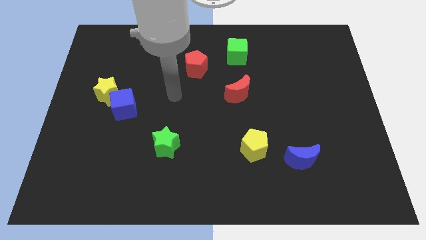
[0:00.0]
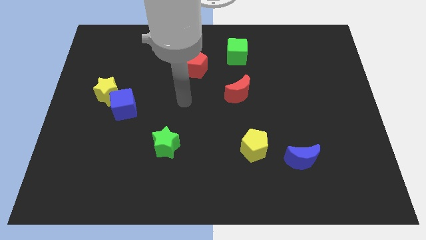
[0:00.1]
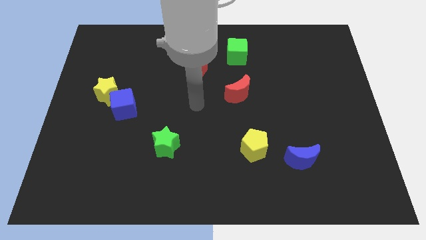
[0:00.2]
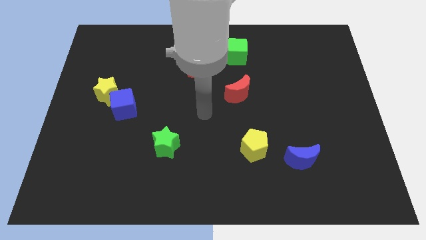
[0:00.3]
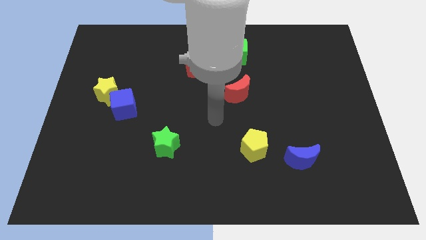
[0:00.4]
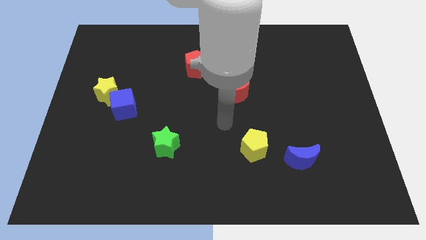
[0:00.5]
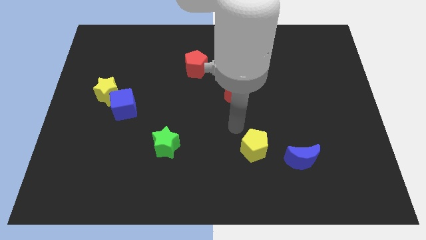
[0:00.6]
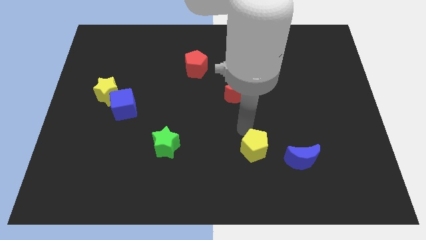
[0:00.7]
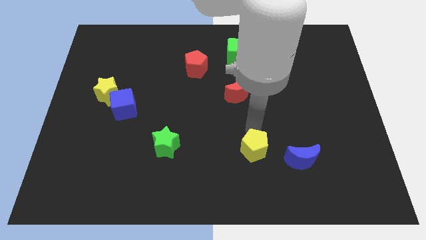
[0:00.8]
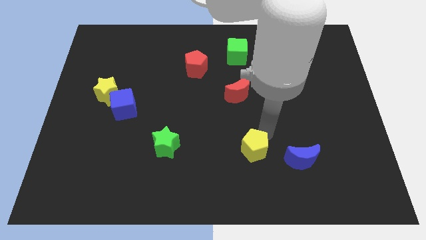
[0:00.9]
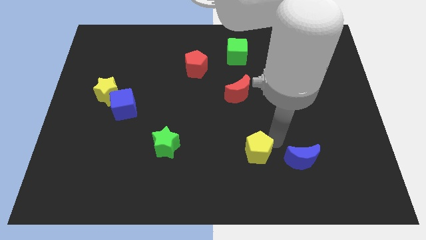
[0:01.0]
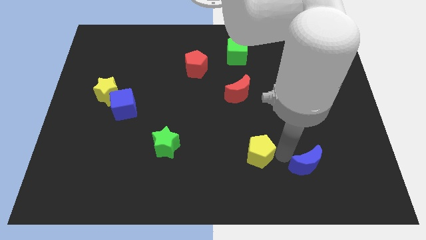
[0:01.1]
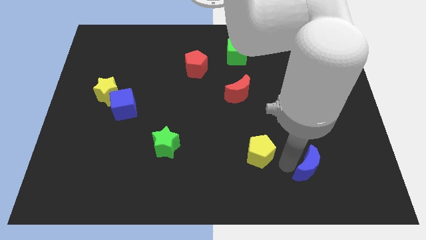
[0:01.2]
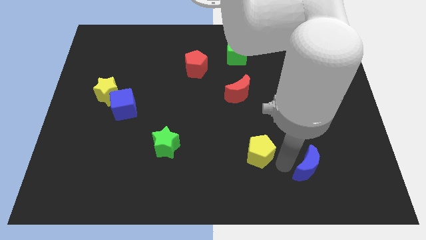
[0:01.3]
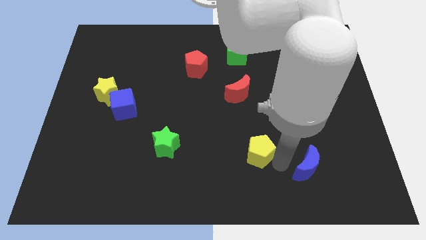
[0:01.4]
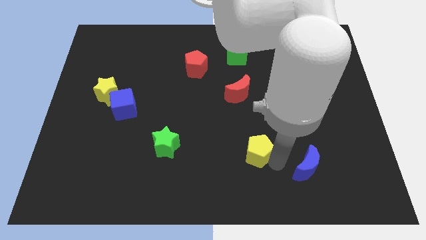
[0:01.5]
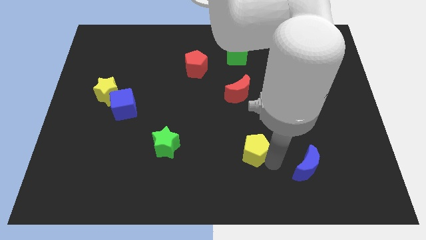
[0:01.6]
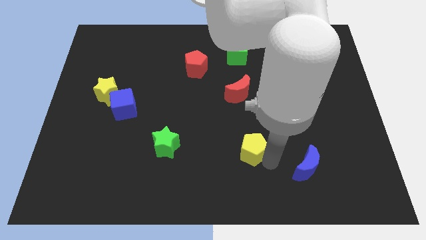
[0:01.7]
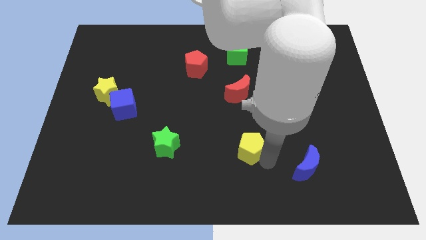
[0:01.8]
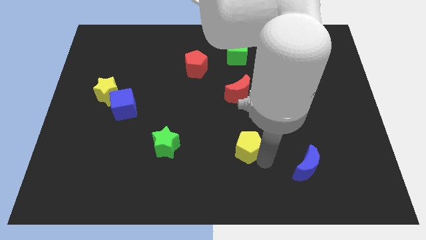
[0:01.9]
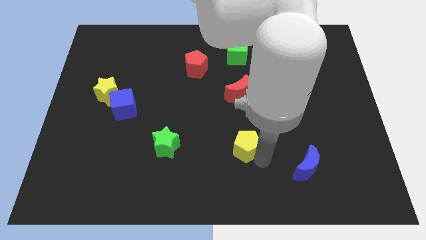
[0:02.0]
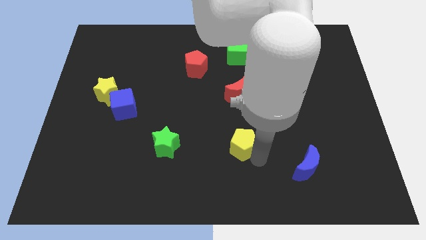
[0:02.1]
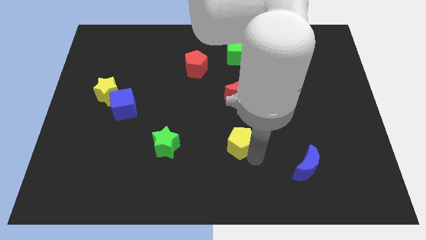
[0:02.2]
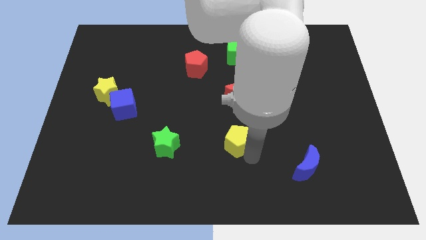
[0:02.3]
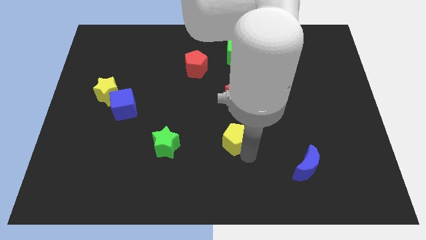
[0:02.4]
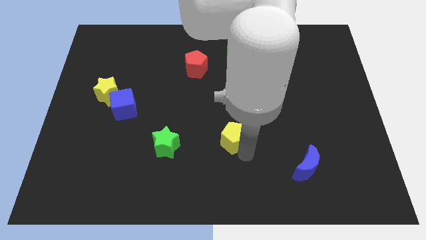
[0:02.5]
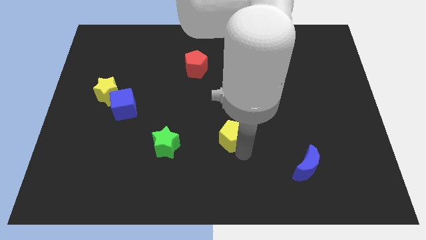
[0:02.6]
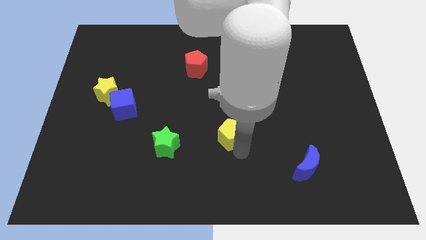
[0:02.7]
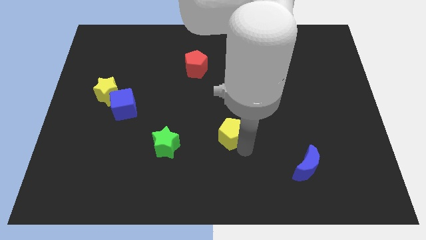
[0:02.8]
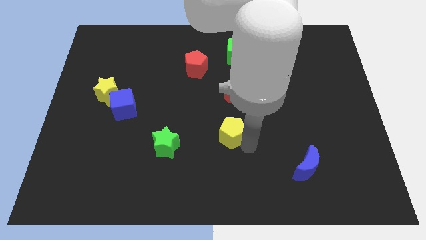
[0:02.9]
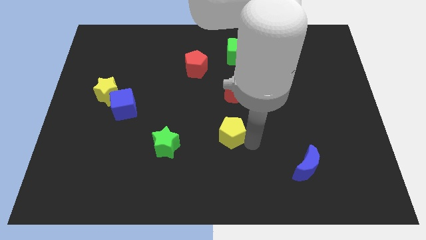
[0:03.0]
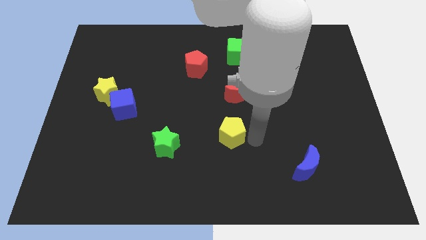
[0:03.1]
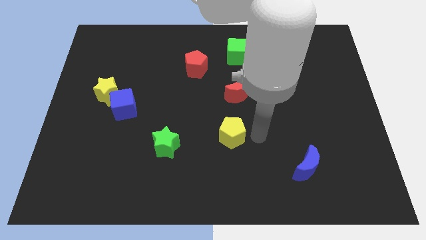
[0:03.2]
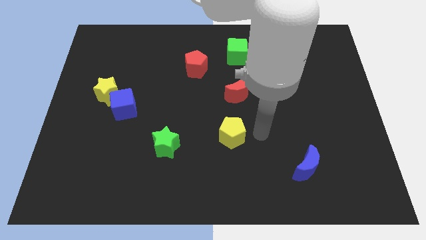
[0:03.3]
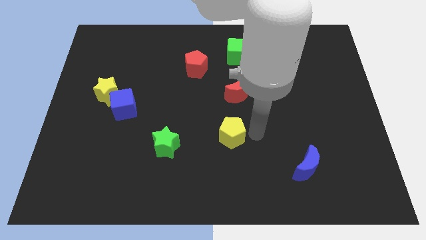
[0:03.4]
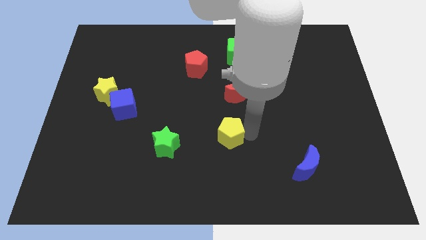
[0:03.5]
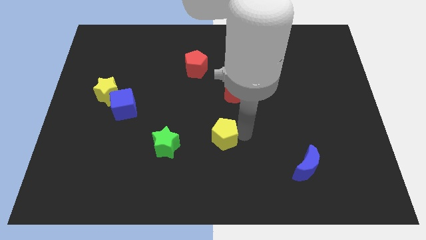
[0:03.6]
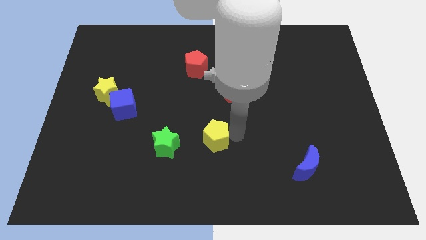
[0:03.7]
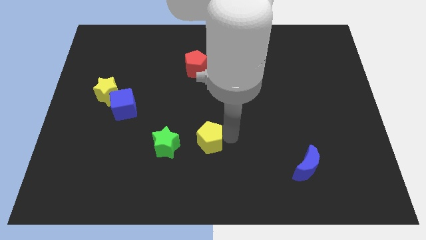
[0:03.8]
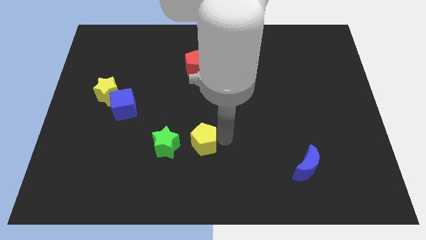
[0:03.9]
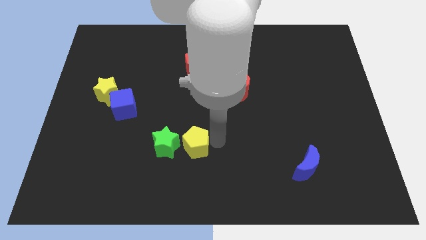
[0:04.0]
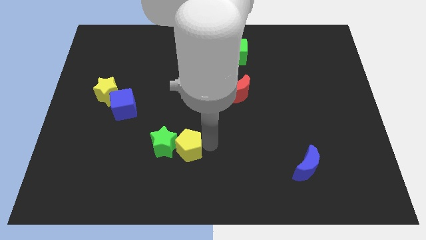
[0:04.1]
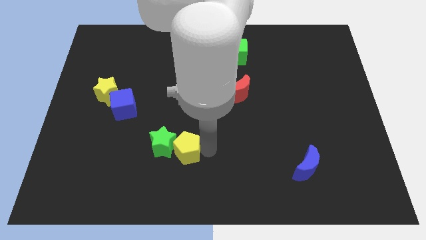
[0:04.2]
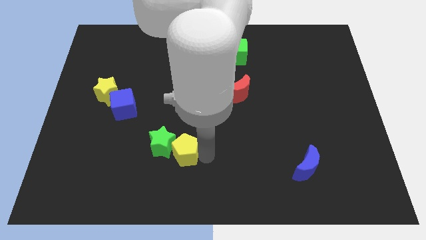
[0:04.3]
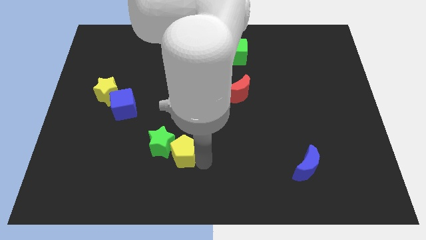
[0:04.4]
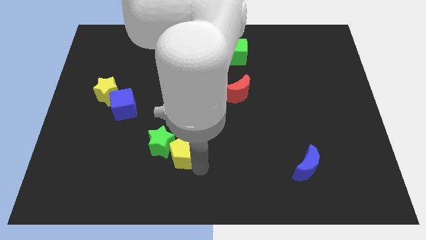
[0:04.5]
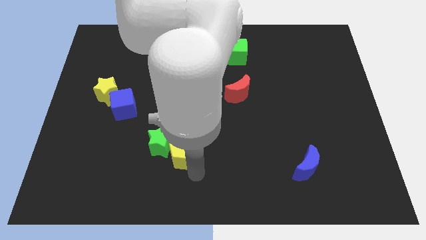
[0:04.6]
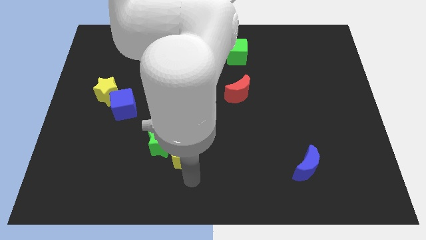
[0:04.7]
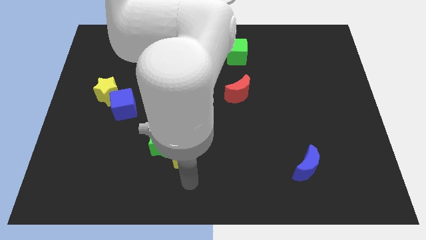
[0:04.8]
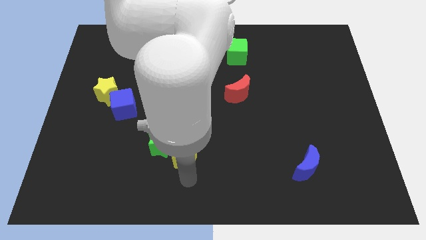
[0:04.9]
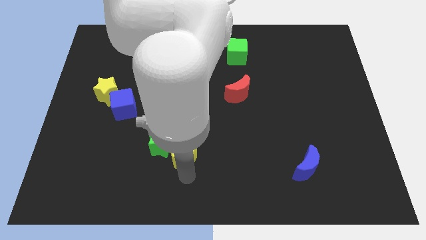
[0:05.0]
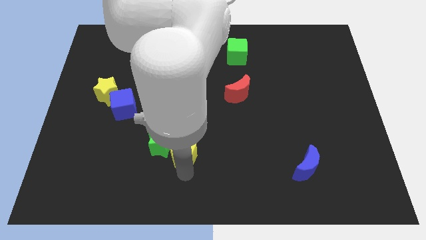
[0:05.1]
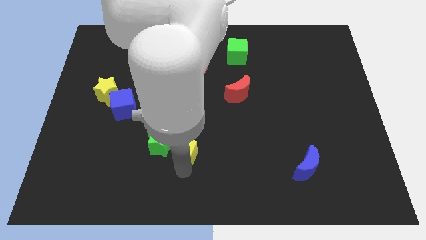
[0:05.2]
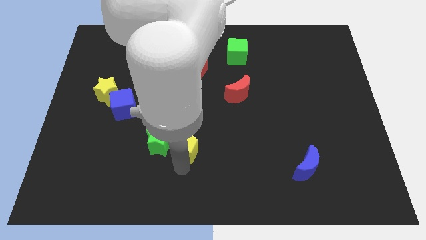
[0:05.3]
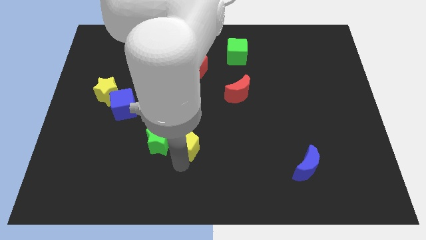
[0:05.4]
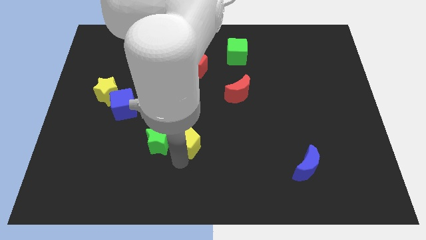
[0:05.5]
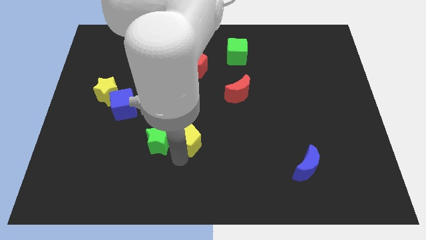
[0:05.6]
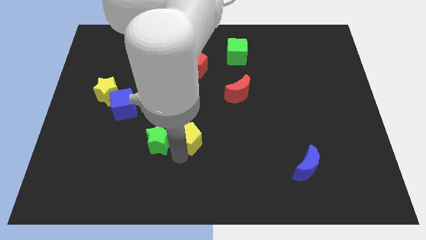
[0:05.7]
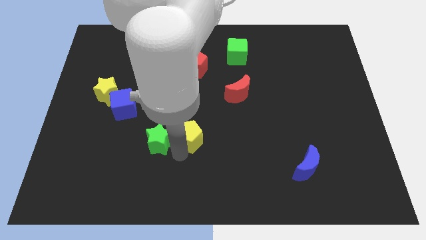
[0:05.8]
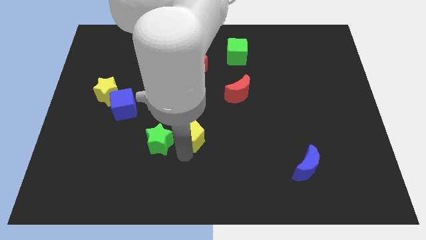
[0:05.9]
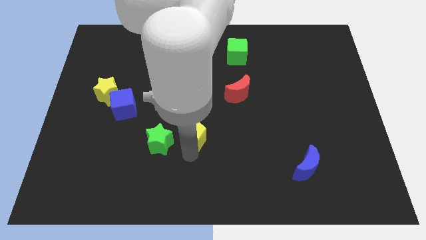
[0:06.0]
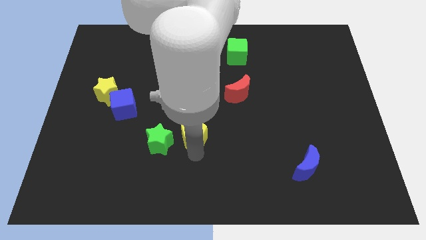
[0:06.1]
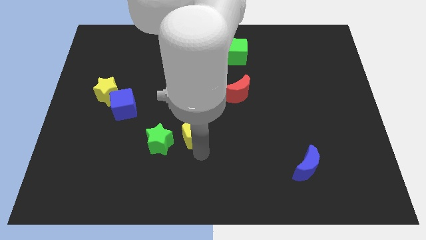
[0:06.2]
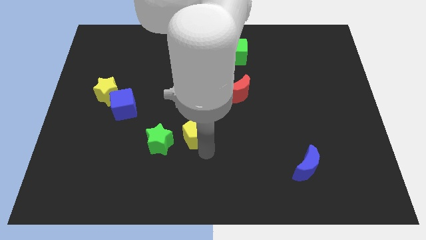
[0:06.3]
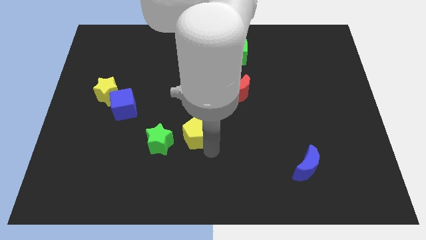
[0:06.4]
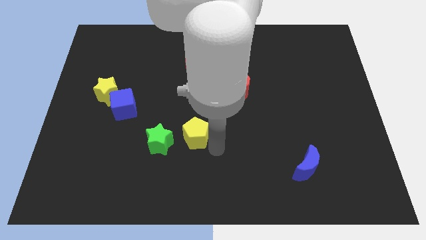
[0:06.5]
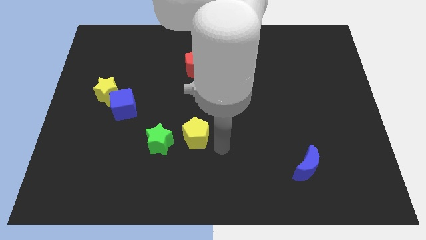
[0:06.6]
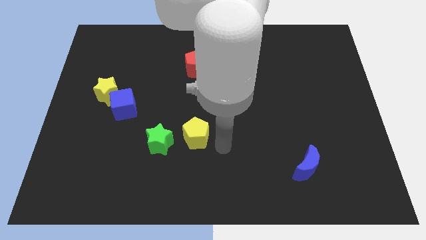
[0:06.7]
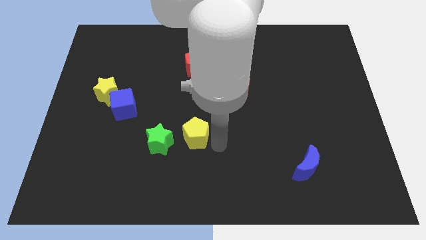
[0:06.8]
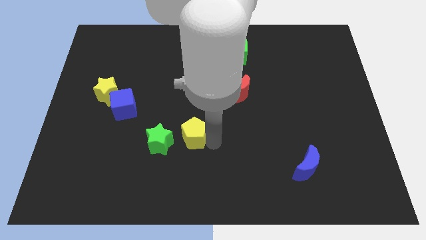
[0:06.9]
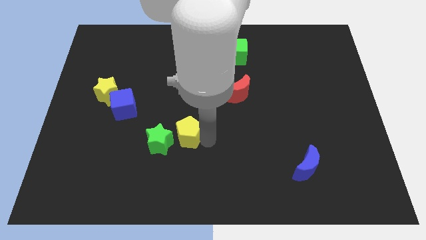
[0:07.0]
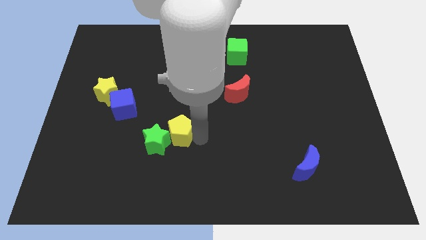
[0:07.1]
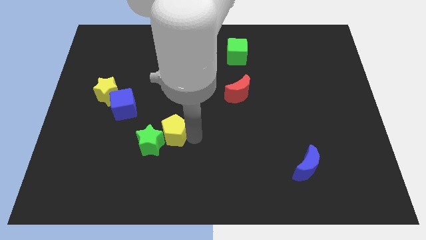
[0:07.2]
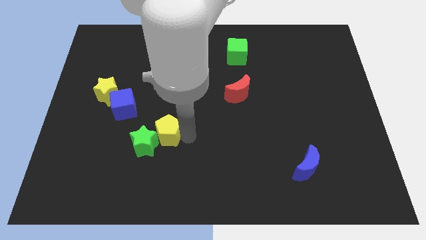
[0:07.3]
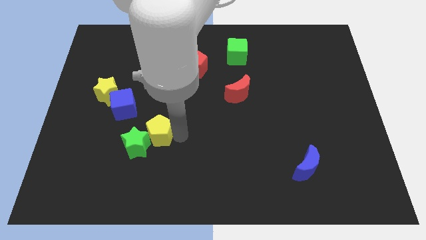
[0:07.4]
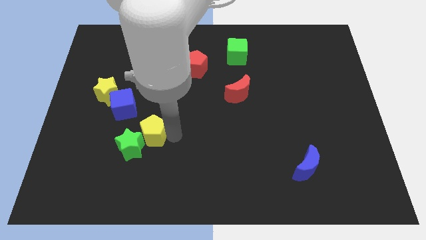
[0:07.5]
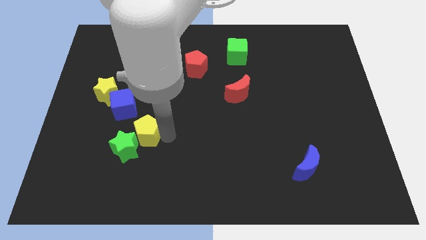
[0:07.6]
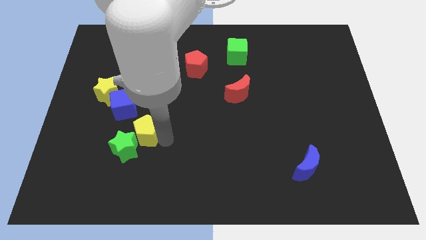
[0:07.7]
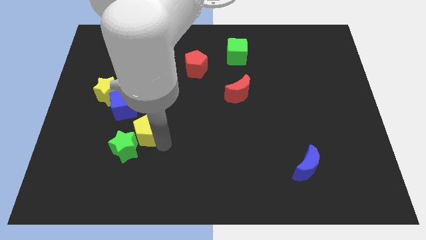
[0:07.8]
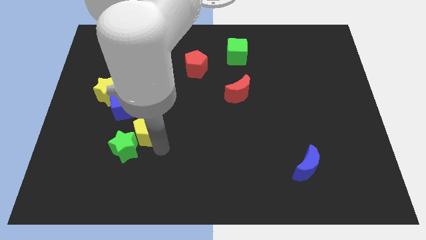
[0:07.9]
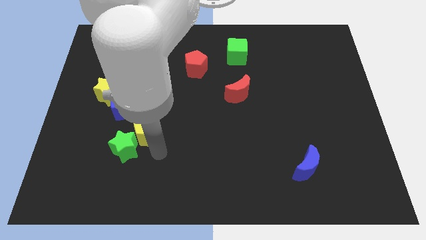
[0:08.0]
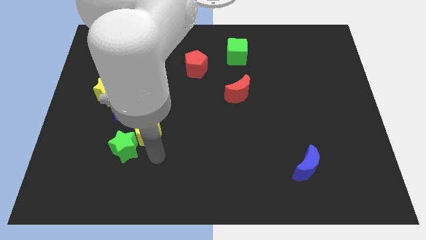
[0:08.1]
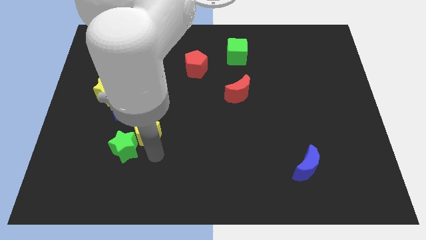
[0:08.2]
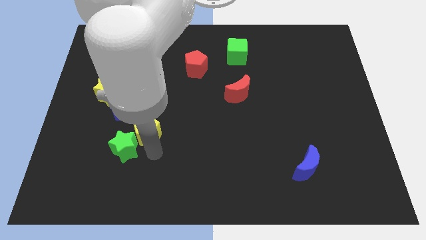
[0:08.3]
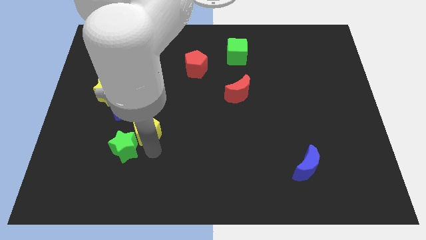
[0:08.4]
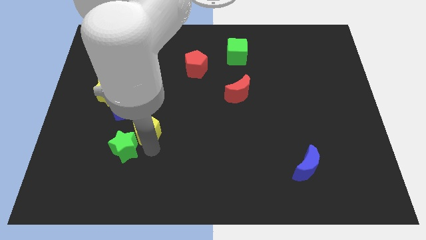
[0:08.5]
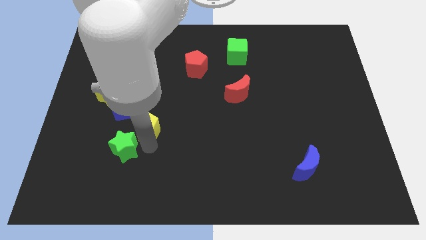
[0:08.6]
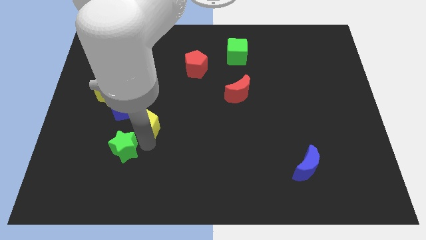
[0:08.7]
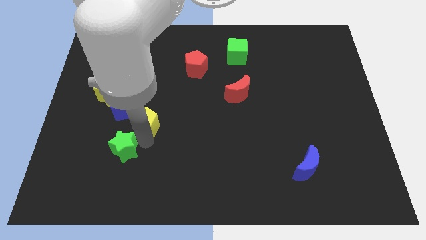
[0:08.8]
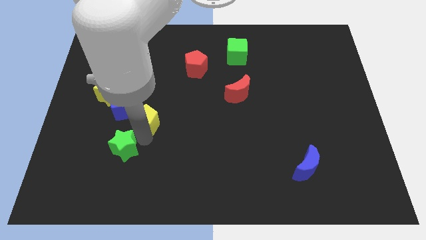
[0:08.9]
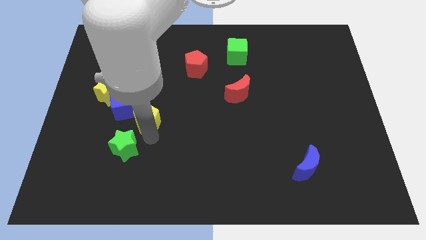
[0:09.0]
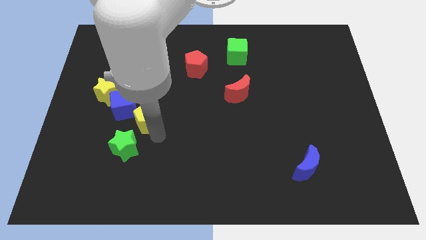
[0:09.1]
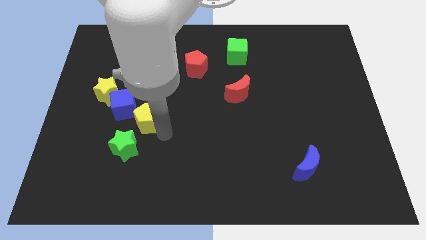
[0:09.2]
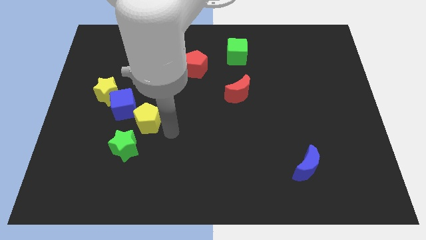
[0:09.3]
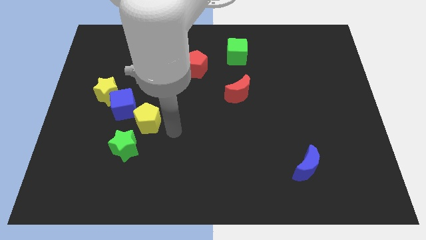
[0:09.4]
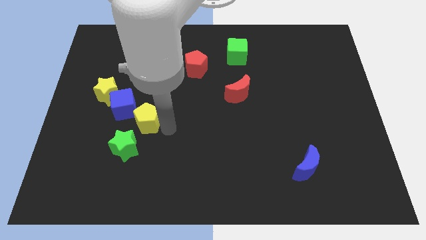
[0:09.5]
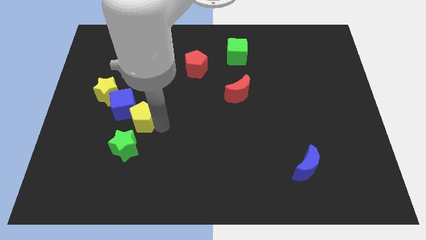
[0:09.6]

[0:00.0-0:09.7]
slide the yellow pentagon diagonally down and to the right of the yellow star
